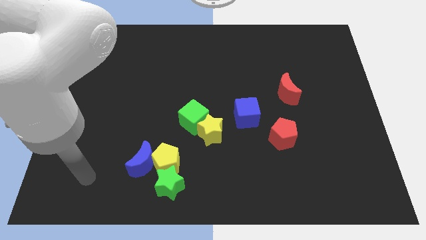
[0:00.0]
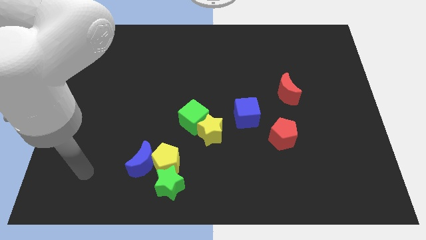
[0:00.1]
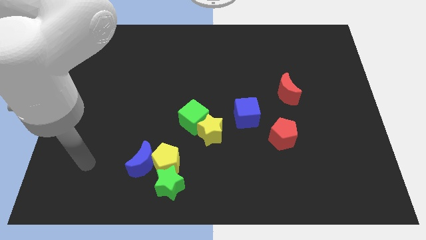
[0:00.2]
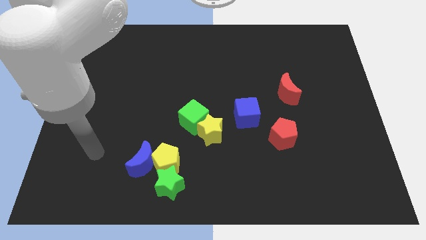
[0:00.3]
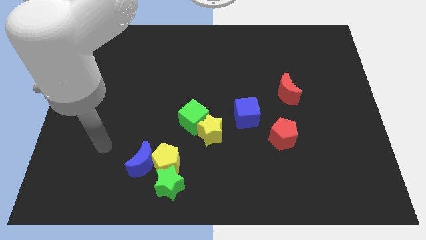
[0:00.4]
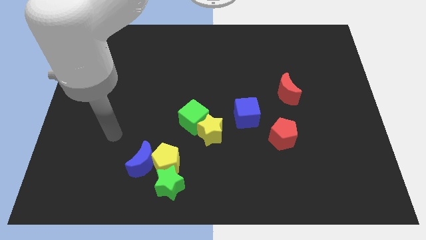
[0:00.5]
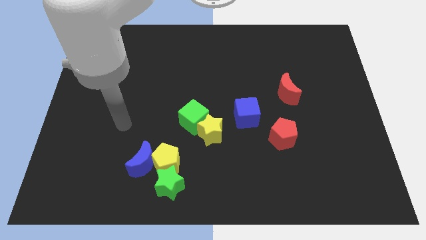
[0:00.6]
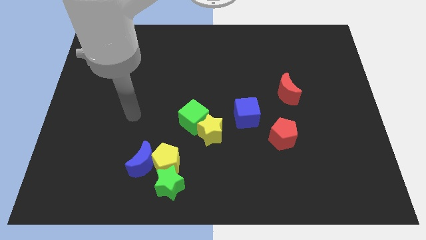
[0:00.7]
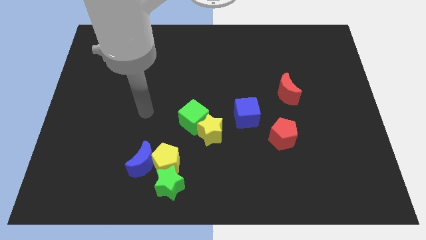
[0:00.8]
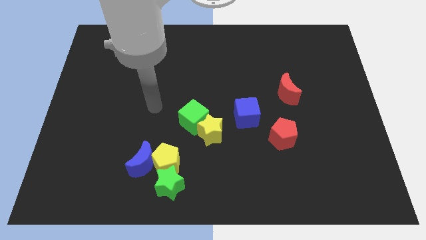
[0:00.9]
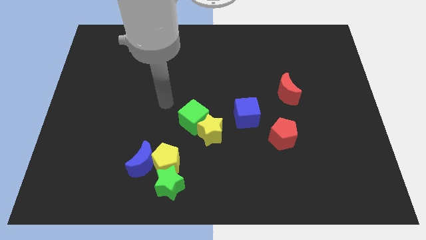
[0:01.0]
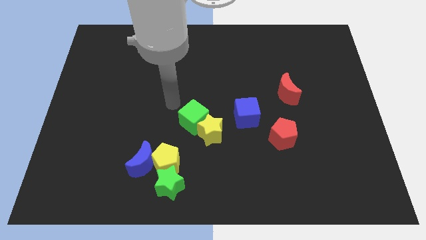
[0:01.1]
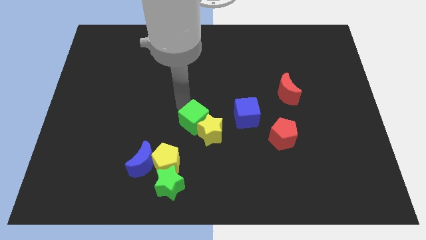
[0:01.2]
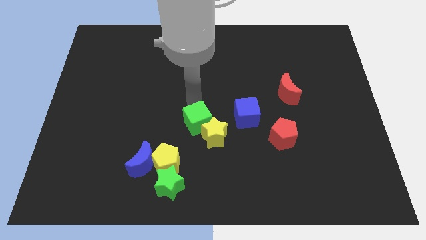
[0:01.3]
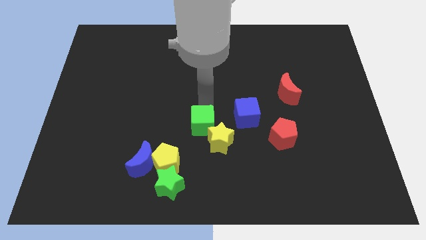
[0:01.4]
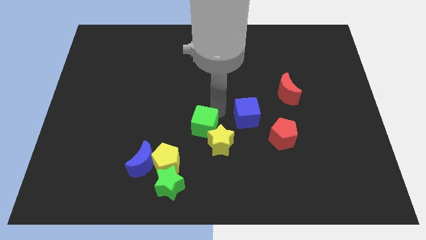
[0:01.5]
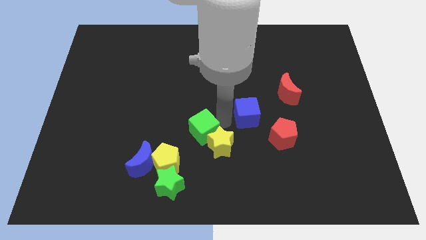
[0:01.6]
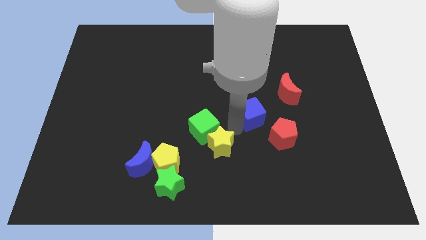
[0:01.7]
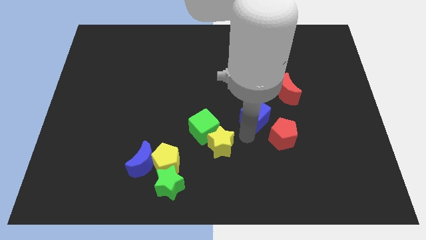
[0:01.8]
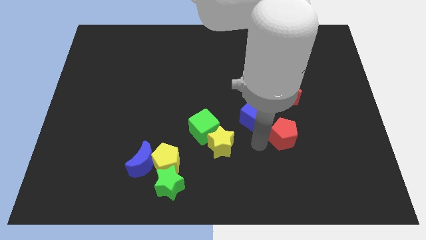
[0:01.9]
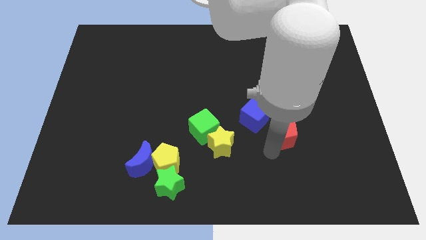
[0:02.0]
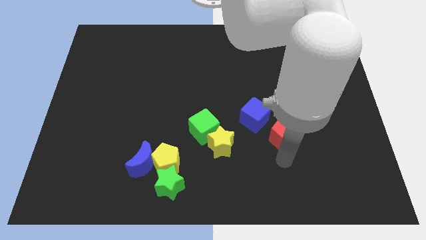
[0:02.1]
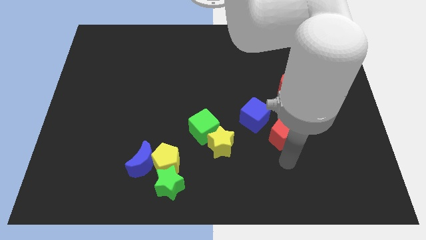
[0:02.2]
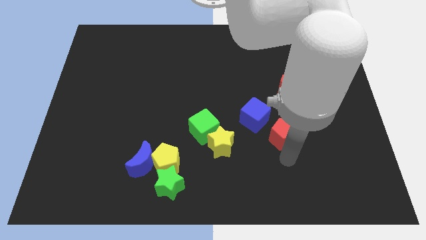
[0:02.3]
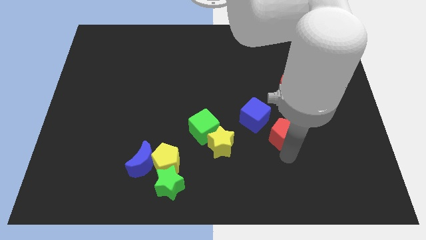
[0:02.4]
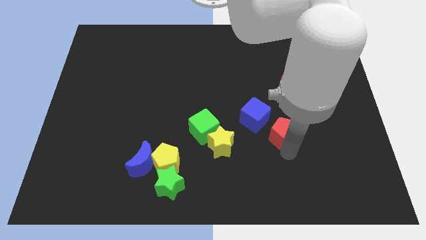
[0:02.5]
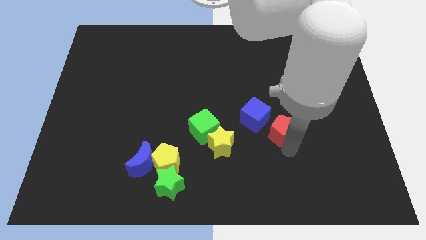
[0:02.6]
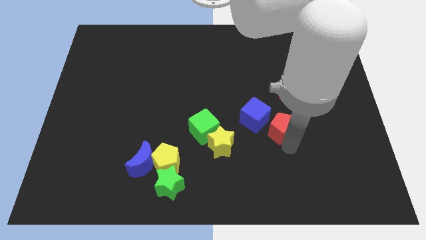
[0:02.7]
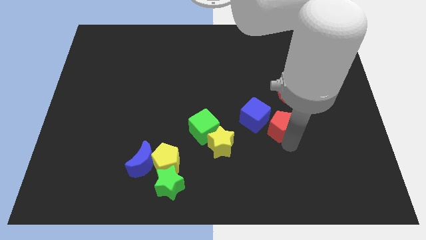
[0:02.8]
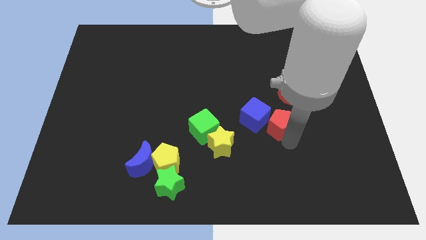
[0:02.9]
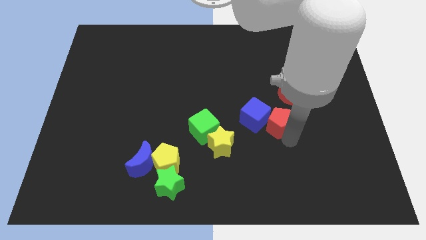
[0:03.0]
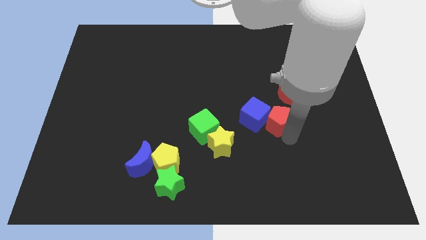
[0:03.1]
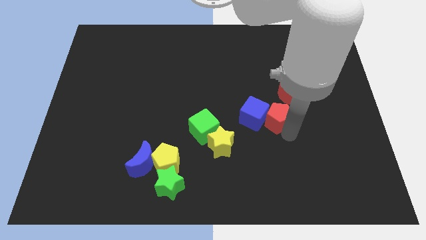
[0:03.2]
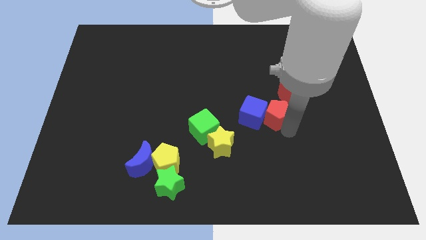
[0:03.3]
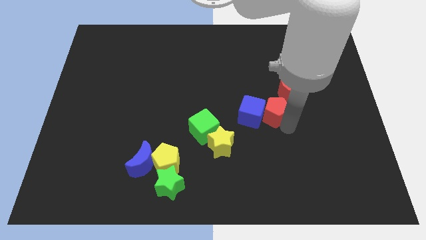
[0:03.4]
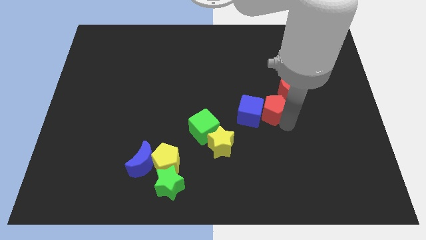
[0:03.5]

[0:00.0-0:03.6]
move the red pentagon somewhat upwards

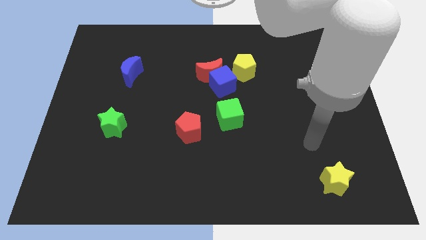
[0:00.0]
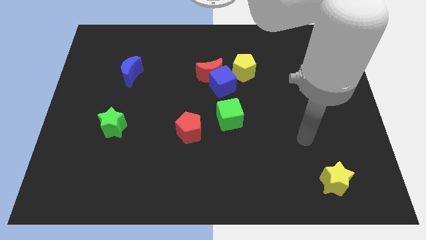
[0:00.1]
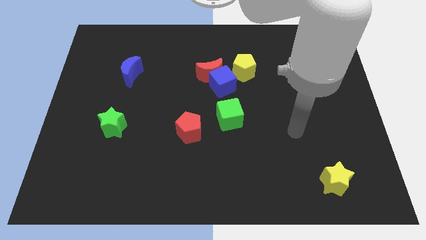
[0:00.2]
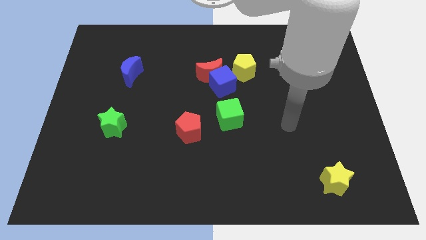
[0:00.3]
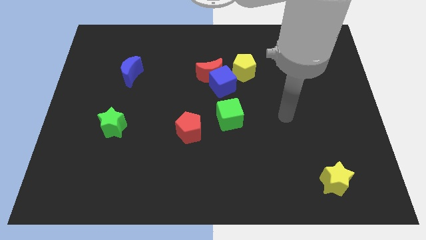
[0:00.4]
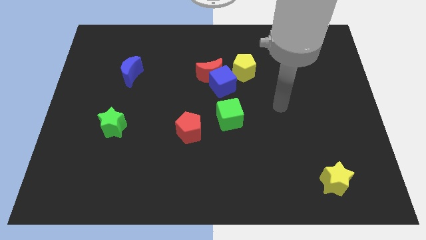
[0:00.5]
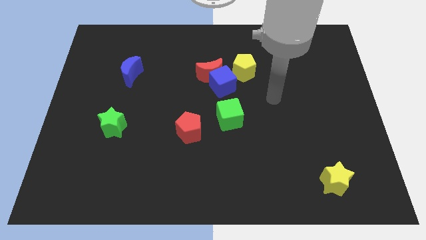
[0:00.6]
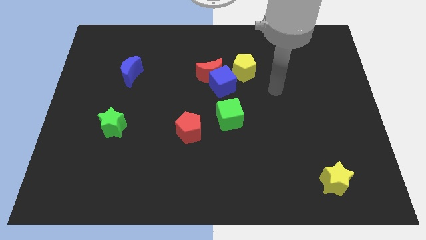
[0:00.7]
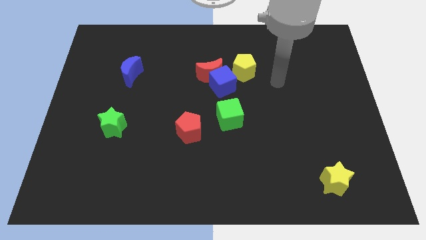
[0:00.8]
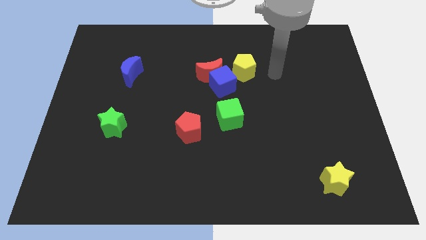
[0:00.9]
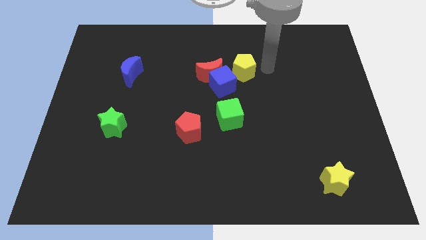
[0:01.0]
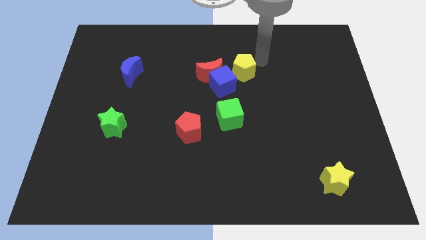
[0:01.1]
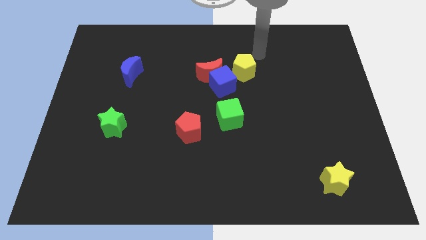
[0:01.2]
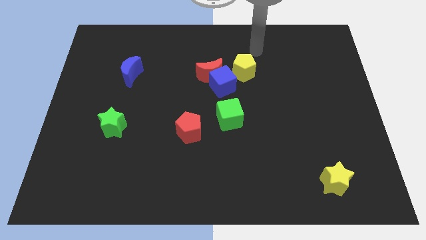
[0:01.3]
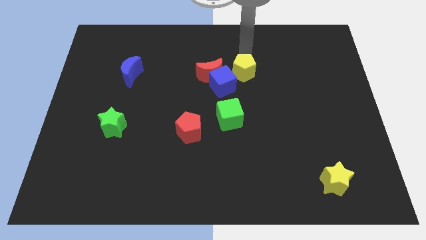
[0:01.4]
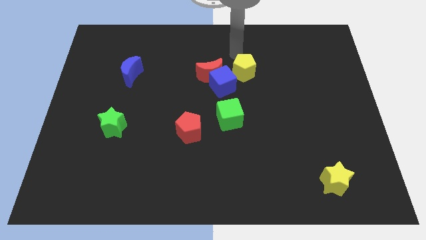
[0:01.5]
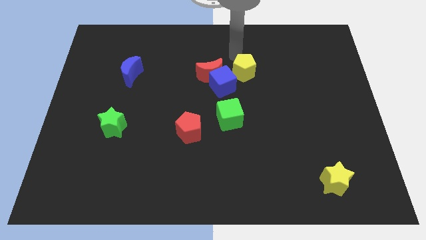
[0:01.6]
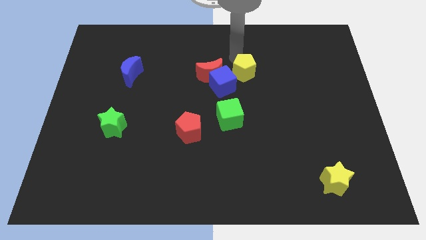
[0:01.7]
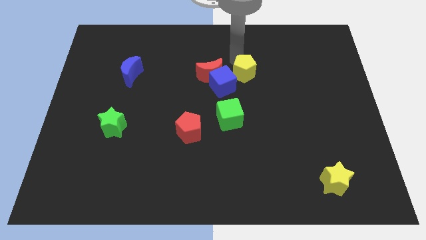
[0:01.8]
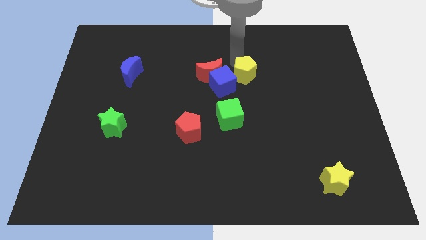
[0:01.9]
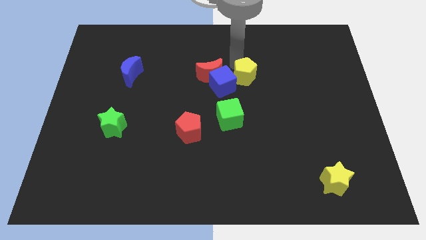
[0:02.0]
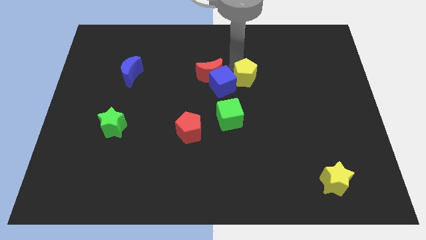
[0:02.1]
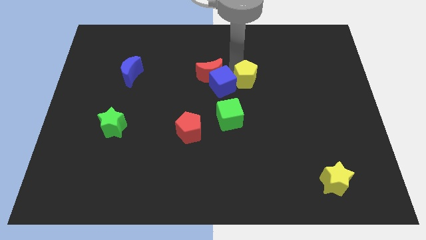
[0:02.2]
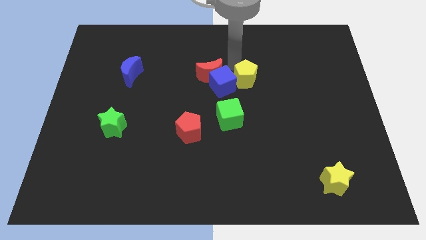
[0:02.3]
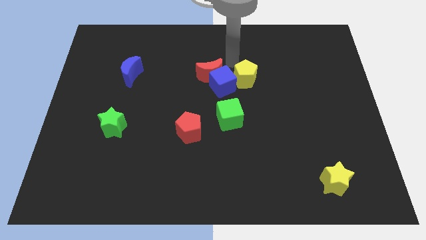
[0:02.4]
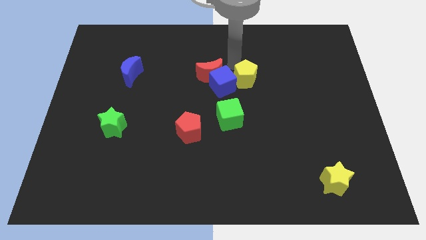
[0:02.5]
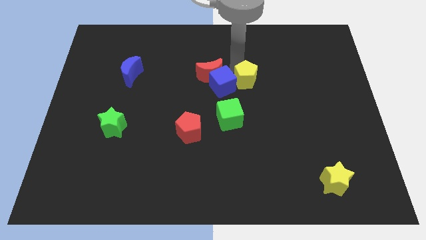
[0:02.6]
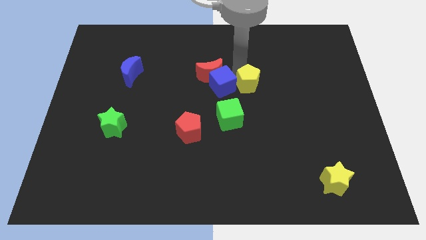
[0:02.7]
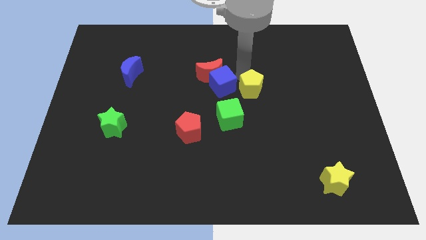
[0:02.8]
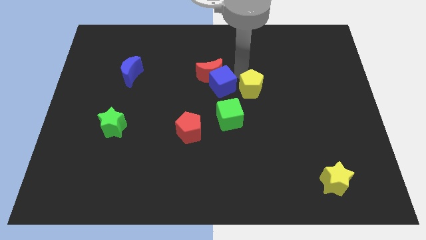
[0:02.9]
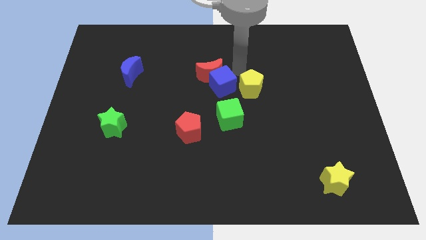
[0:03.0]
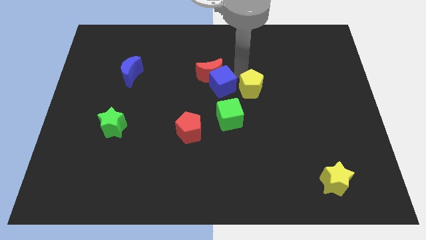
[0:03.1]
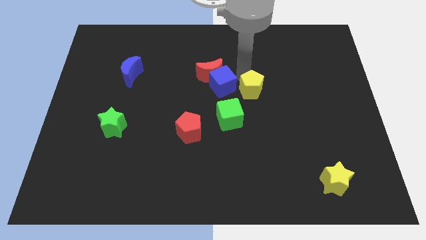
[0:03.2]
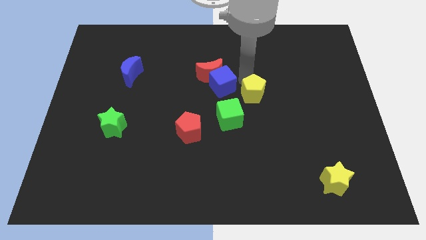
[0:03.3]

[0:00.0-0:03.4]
slightly slide the yellow pentagon down

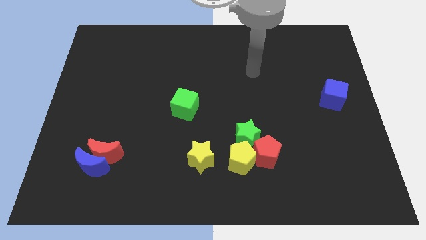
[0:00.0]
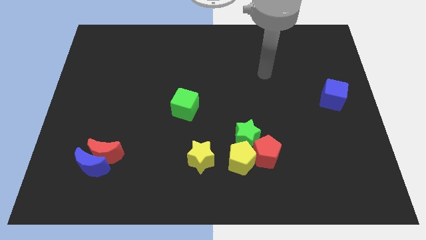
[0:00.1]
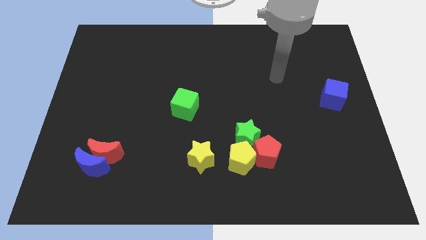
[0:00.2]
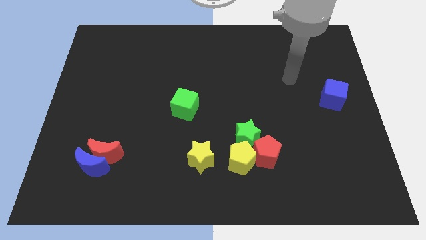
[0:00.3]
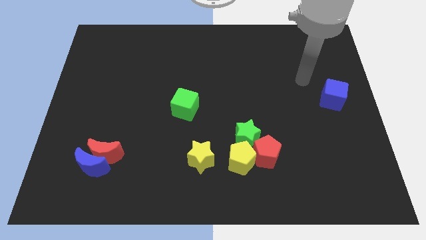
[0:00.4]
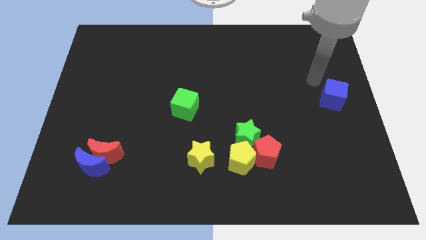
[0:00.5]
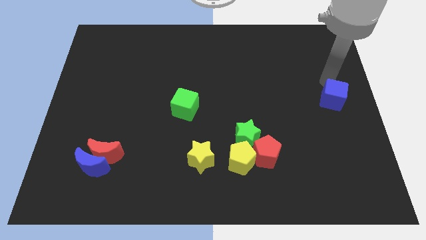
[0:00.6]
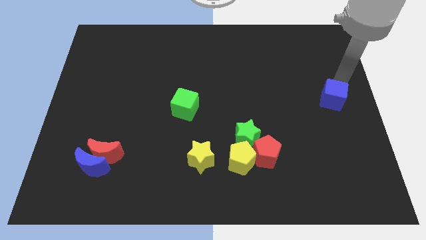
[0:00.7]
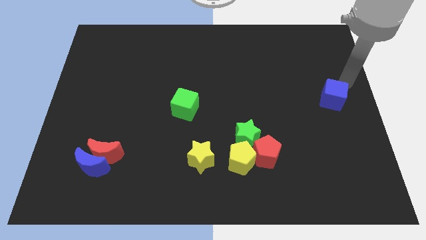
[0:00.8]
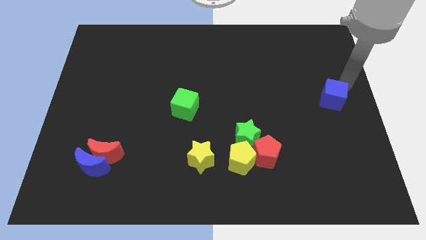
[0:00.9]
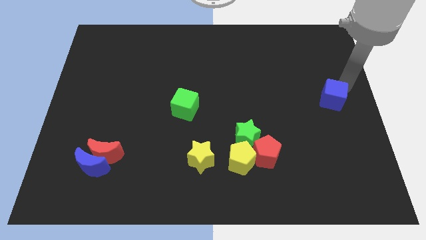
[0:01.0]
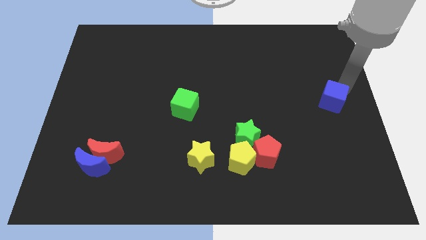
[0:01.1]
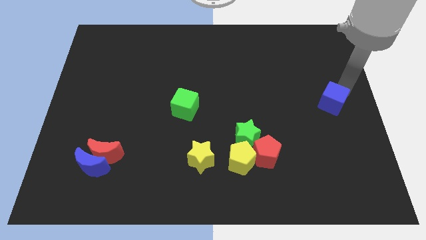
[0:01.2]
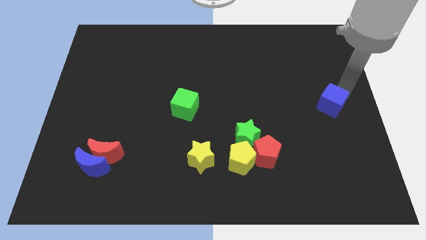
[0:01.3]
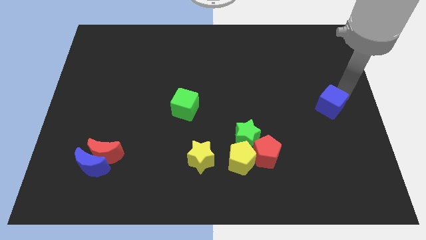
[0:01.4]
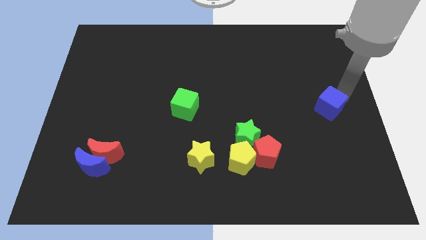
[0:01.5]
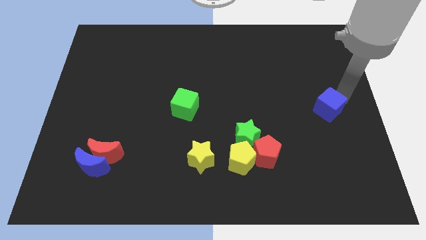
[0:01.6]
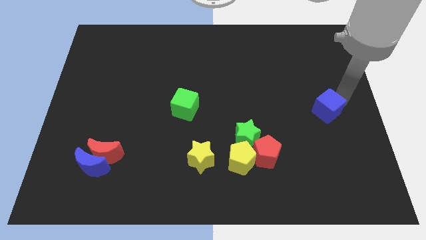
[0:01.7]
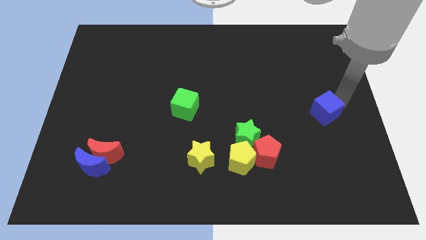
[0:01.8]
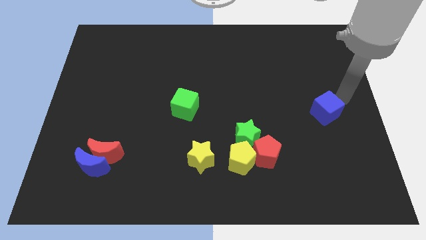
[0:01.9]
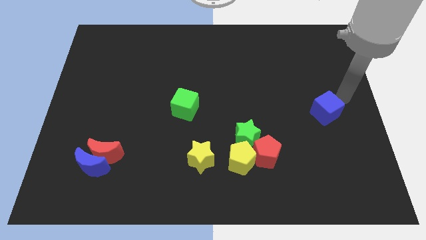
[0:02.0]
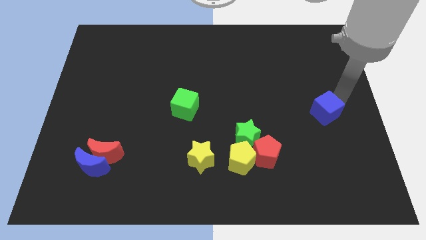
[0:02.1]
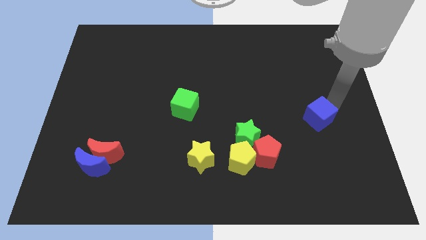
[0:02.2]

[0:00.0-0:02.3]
slightly move the blue cube down and to the left diagonally
